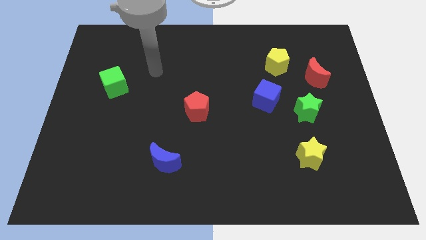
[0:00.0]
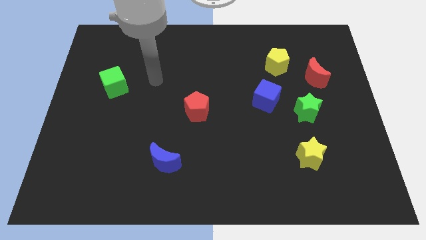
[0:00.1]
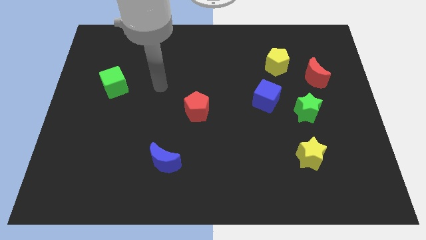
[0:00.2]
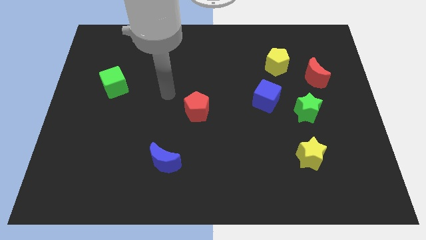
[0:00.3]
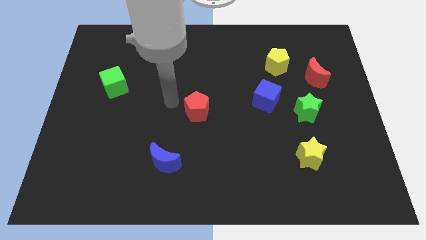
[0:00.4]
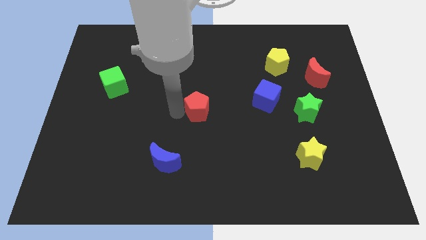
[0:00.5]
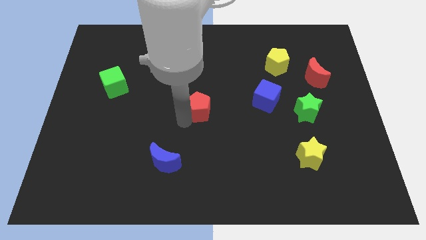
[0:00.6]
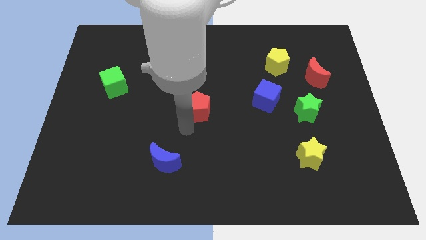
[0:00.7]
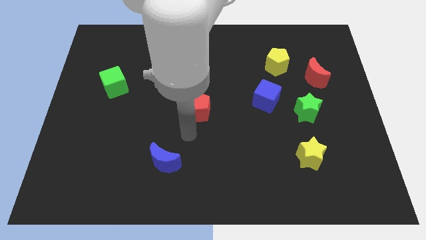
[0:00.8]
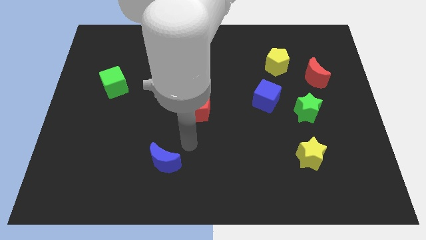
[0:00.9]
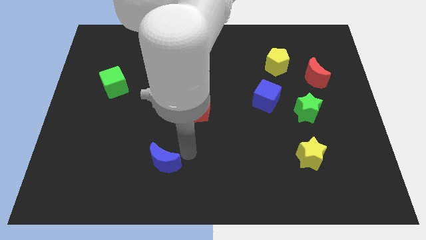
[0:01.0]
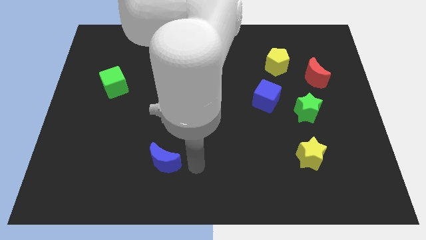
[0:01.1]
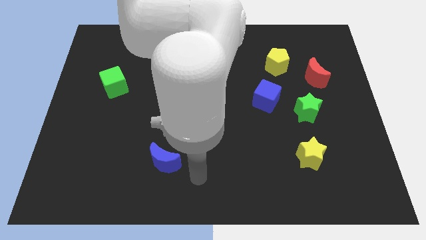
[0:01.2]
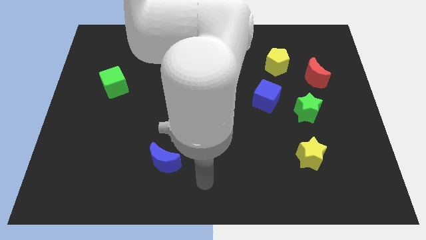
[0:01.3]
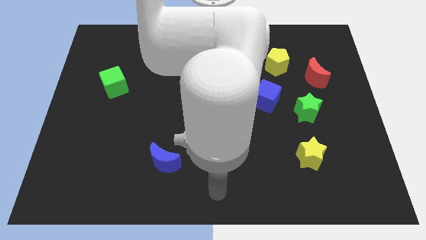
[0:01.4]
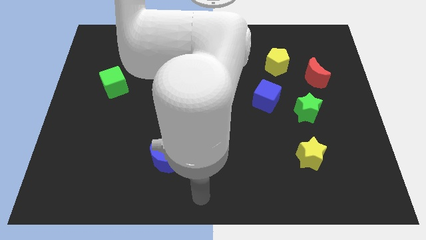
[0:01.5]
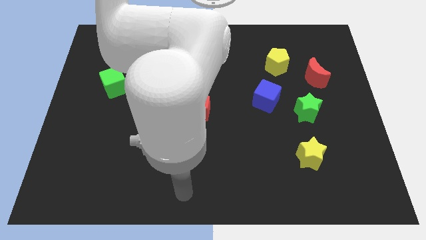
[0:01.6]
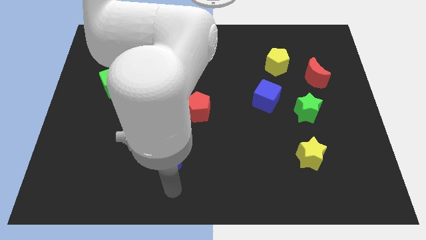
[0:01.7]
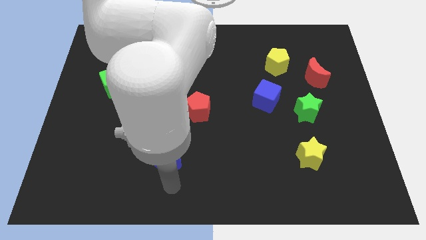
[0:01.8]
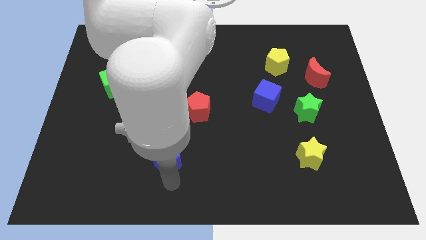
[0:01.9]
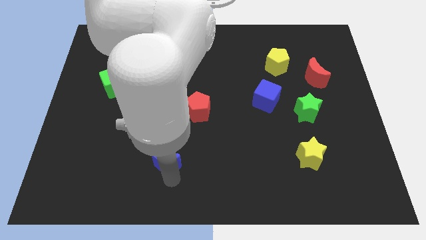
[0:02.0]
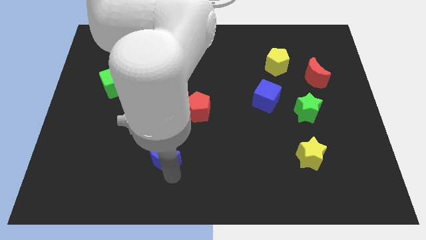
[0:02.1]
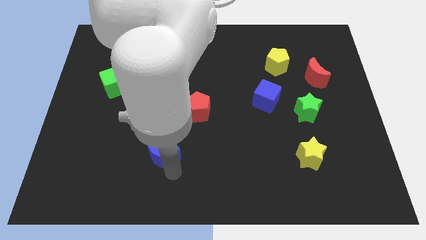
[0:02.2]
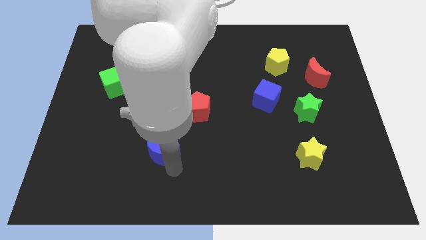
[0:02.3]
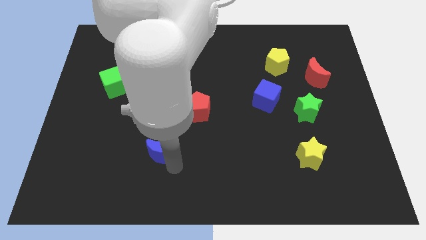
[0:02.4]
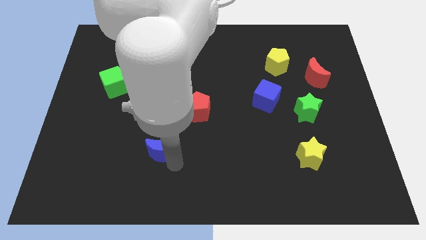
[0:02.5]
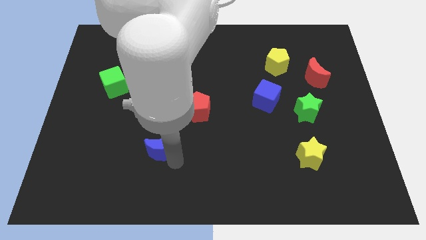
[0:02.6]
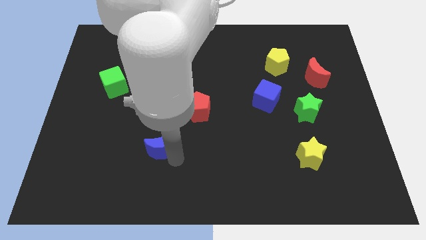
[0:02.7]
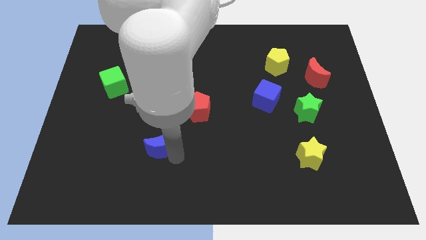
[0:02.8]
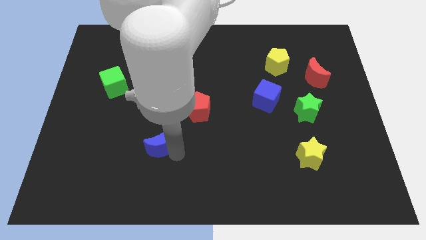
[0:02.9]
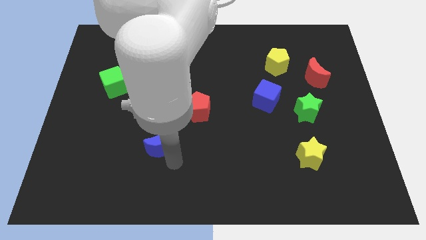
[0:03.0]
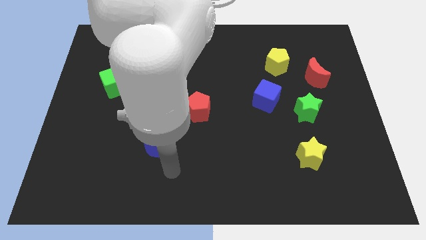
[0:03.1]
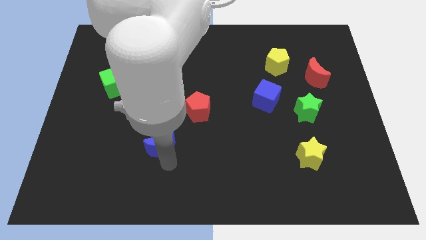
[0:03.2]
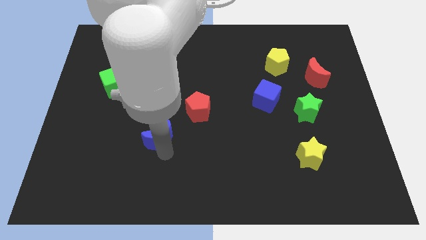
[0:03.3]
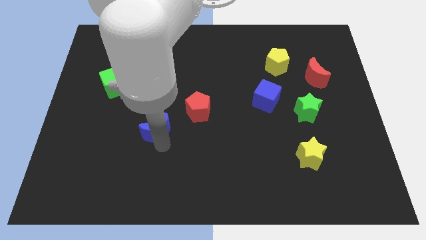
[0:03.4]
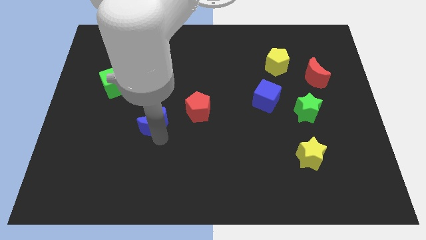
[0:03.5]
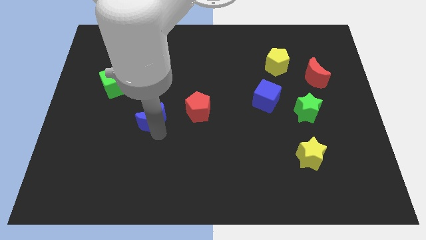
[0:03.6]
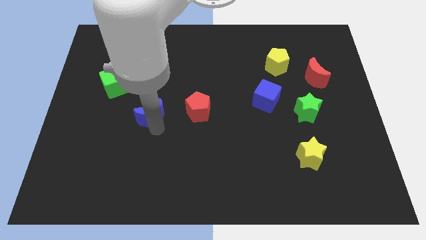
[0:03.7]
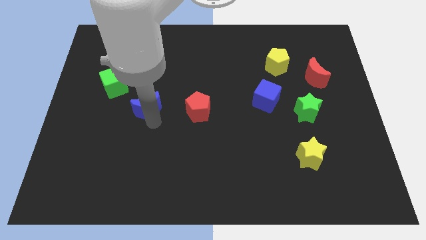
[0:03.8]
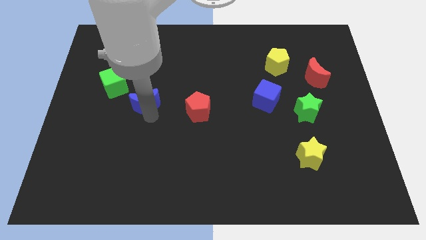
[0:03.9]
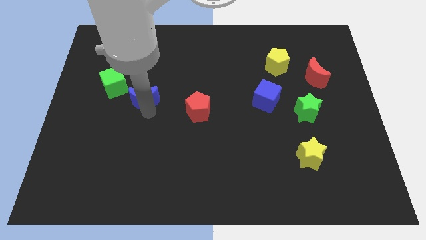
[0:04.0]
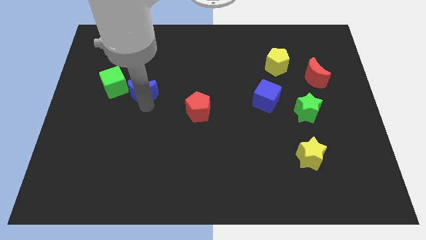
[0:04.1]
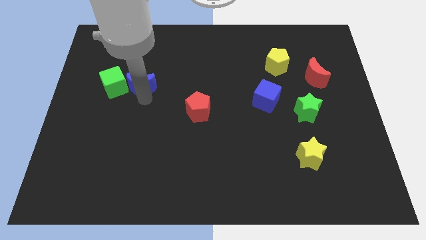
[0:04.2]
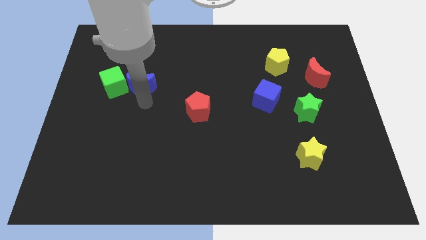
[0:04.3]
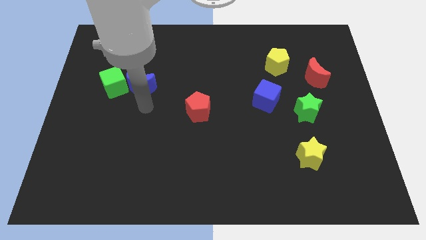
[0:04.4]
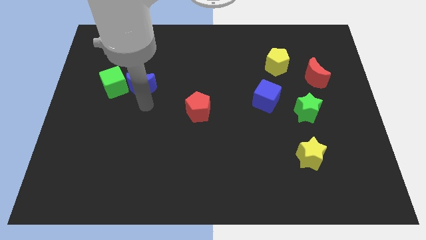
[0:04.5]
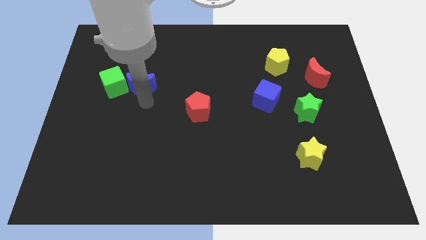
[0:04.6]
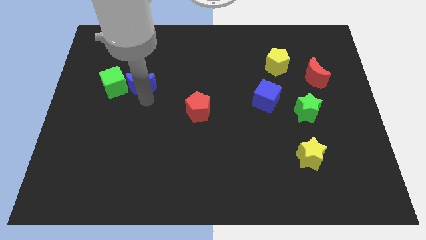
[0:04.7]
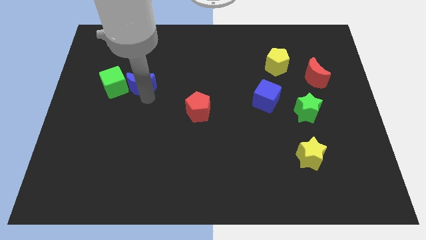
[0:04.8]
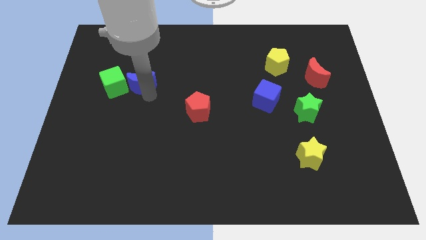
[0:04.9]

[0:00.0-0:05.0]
push the blue moon to the top right of the green cube

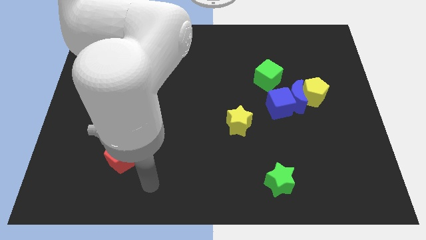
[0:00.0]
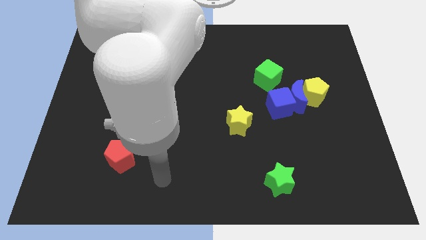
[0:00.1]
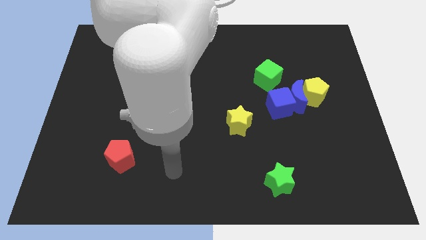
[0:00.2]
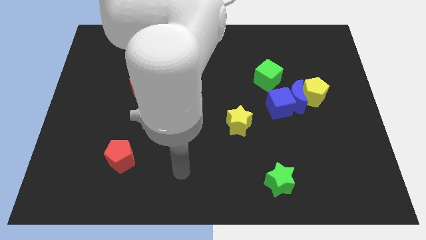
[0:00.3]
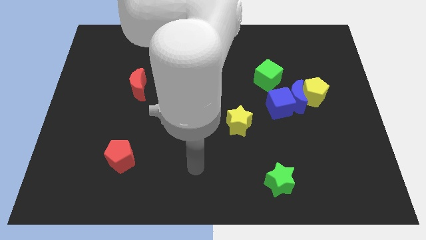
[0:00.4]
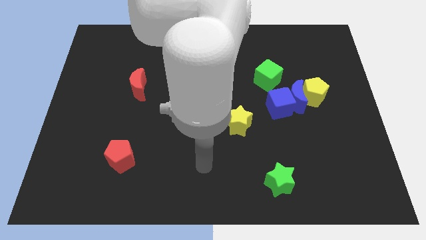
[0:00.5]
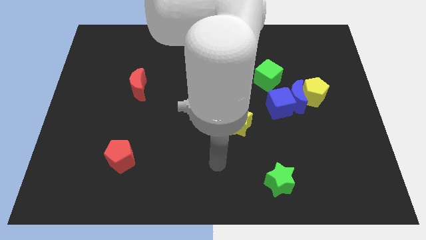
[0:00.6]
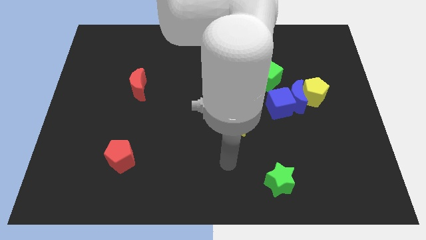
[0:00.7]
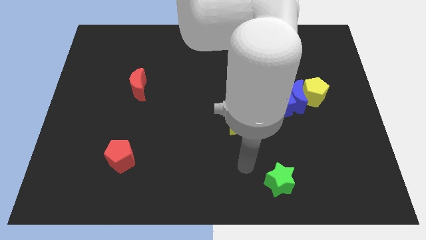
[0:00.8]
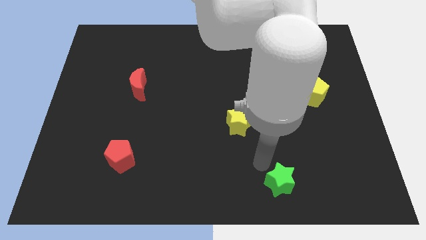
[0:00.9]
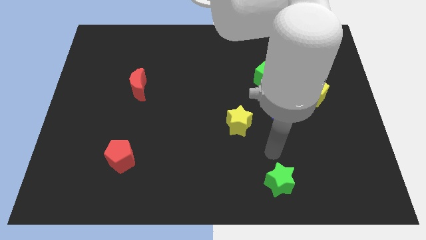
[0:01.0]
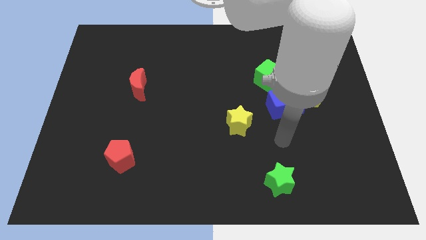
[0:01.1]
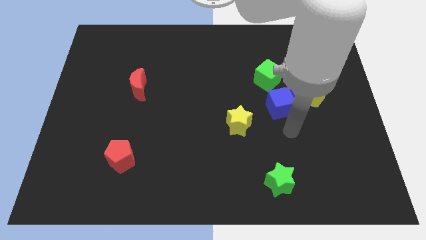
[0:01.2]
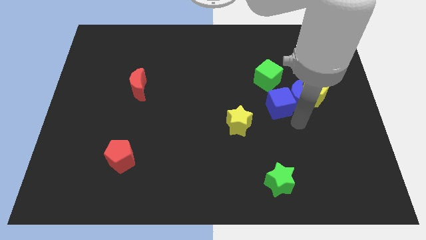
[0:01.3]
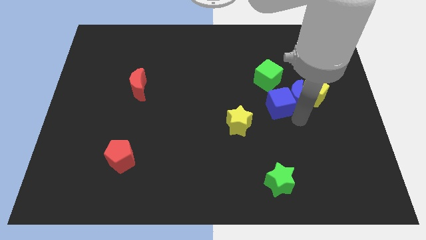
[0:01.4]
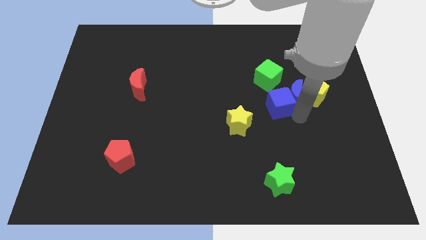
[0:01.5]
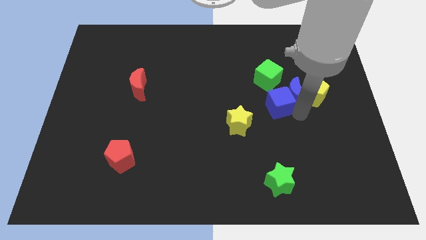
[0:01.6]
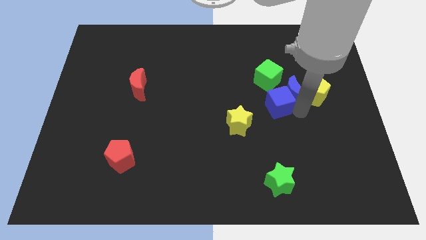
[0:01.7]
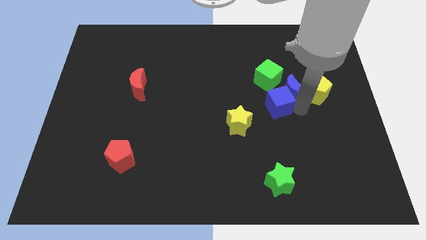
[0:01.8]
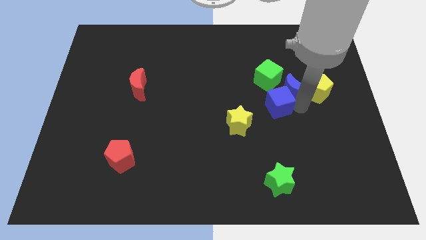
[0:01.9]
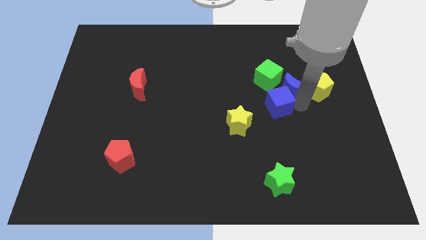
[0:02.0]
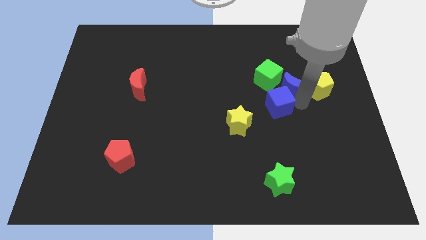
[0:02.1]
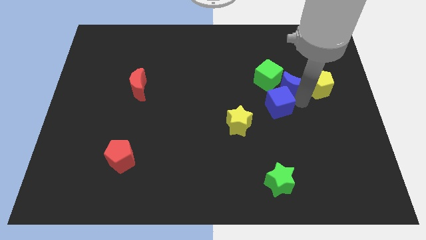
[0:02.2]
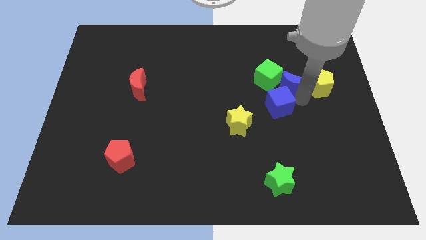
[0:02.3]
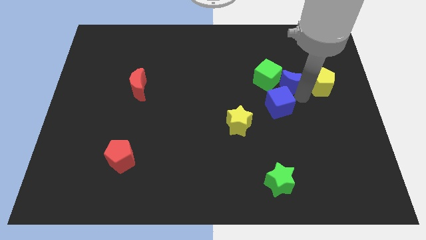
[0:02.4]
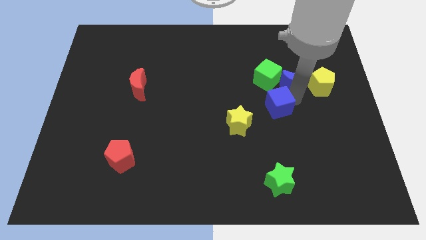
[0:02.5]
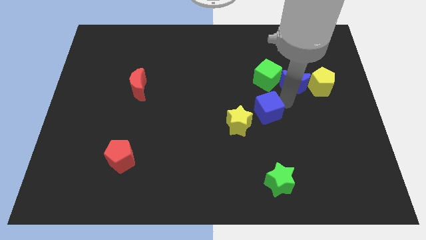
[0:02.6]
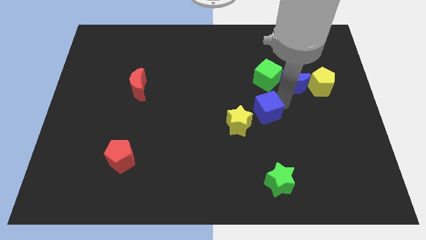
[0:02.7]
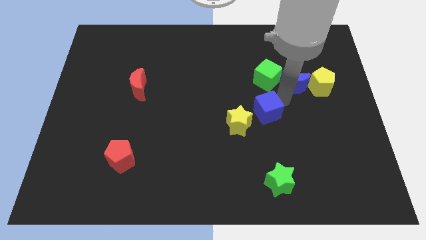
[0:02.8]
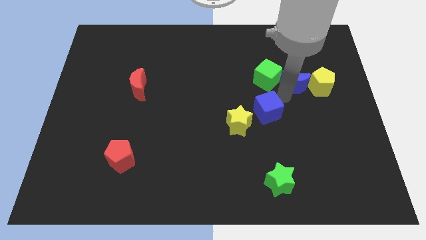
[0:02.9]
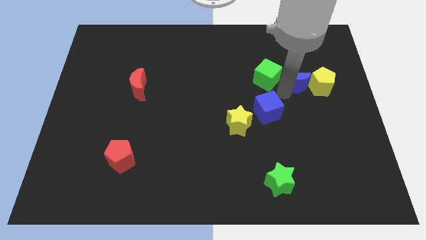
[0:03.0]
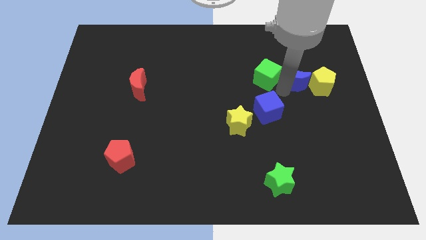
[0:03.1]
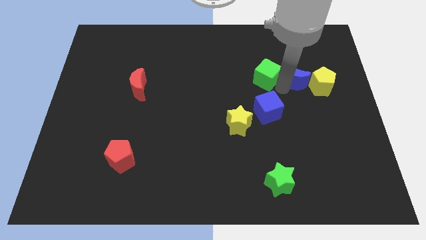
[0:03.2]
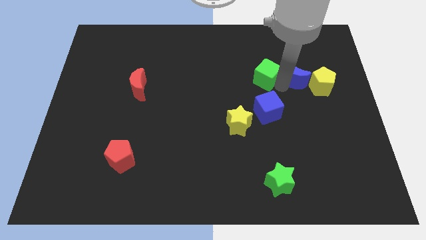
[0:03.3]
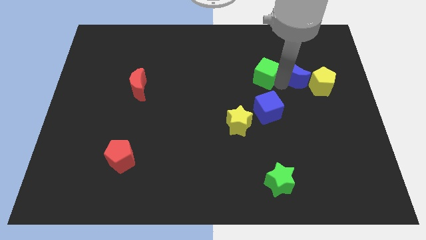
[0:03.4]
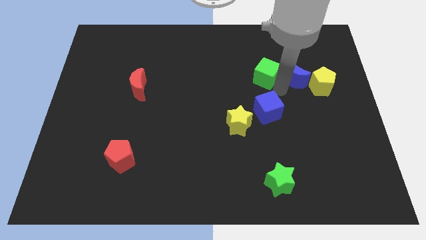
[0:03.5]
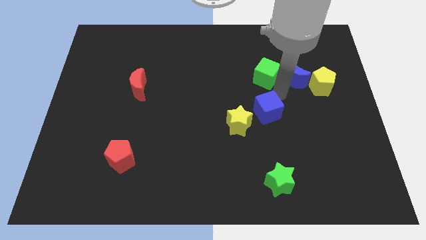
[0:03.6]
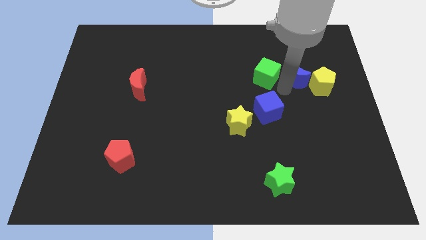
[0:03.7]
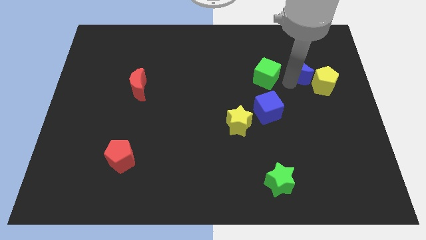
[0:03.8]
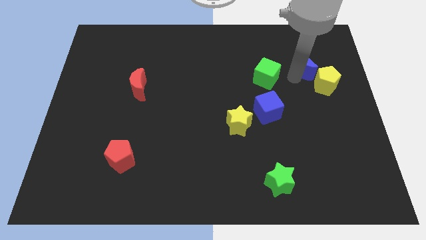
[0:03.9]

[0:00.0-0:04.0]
slide the blue moon to the top of the yellow pentagon
